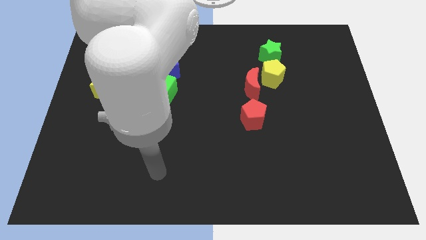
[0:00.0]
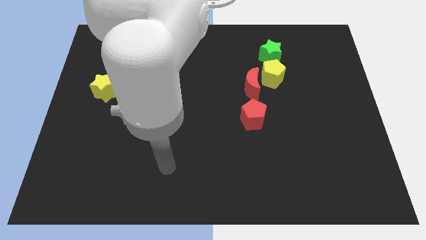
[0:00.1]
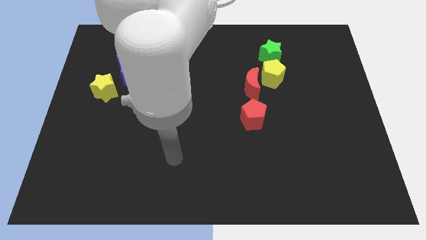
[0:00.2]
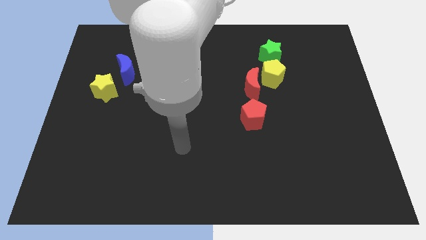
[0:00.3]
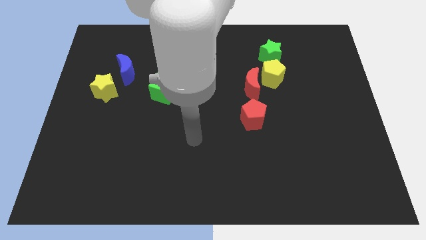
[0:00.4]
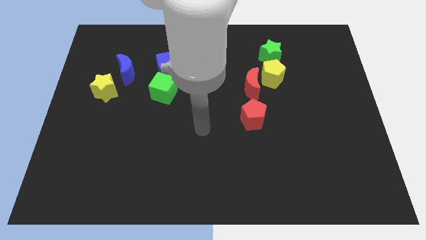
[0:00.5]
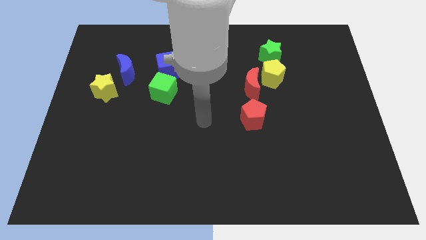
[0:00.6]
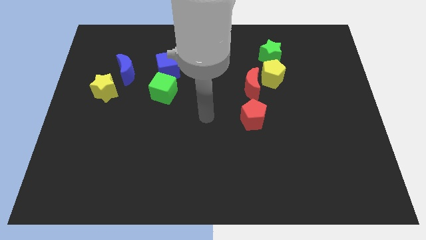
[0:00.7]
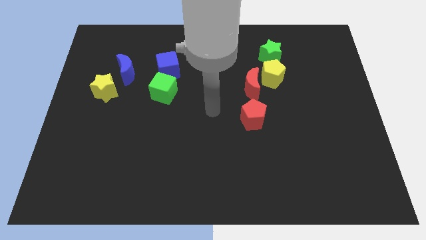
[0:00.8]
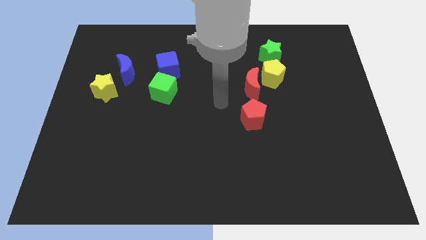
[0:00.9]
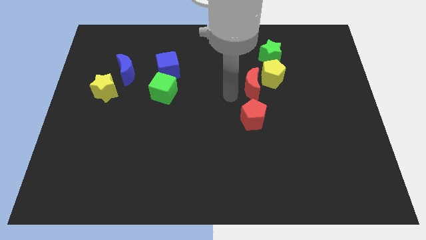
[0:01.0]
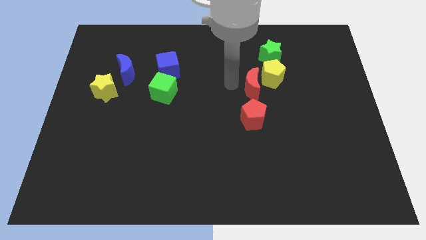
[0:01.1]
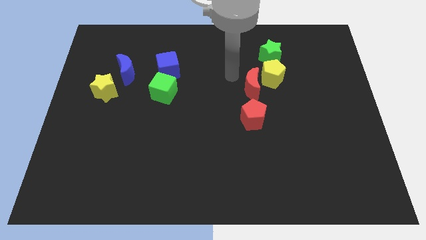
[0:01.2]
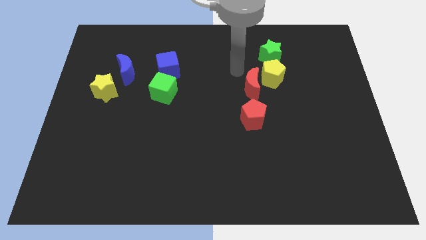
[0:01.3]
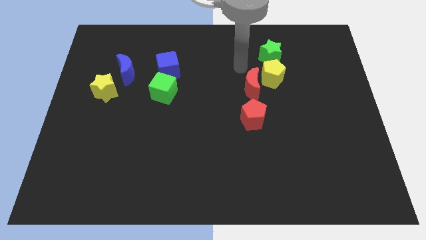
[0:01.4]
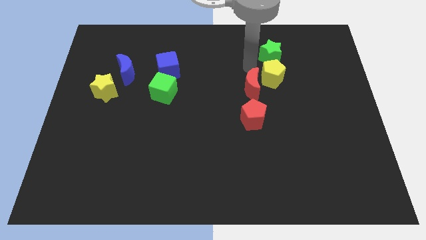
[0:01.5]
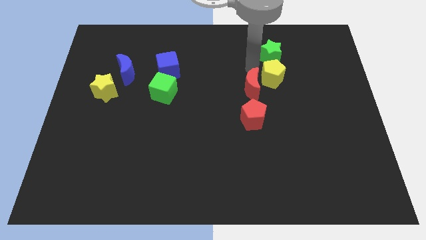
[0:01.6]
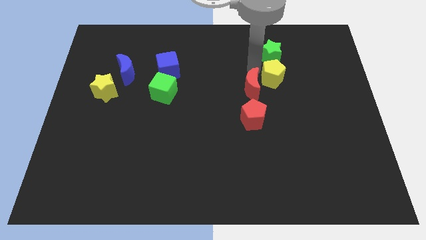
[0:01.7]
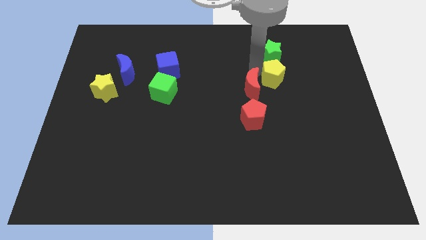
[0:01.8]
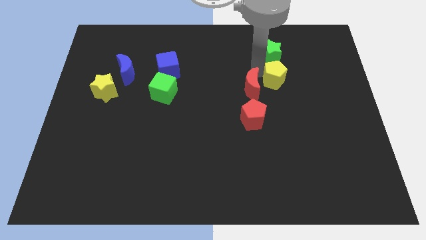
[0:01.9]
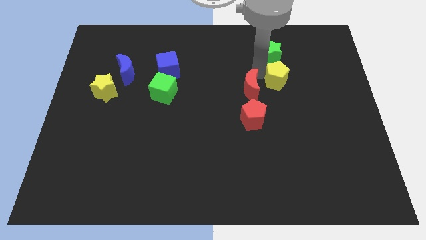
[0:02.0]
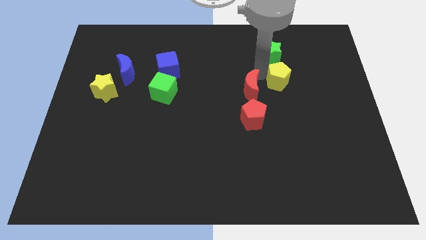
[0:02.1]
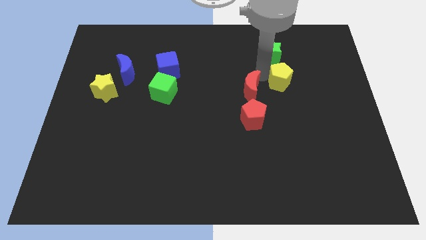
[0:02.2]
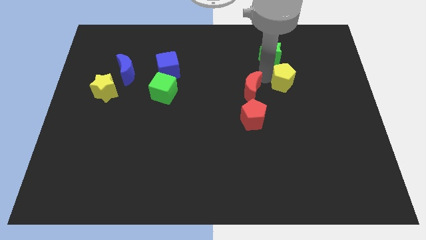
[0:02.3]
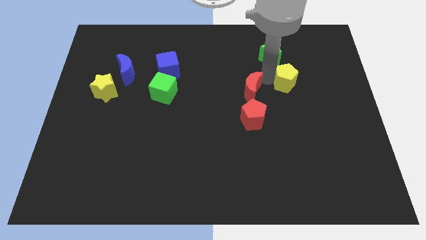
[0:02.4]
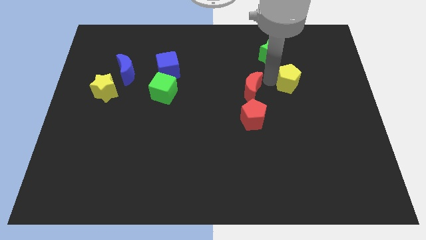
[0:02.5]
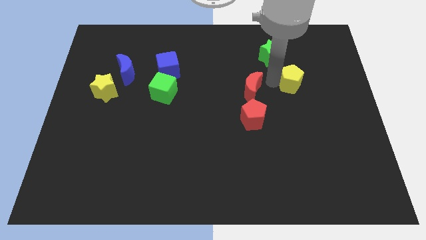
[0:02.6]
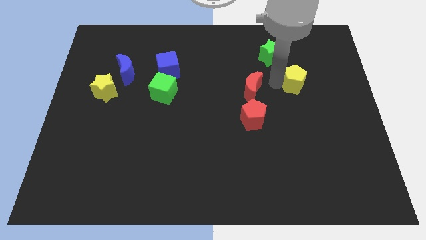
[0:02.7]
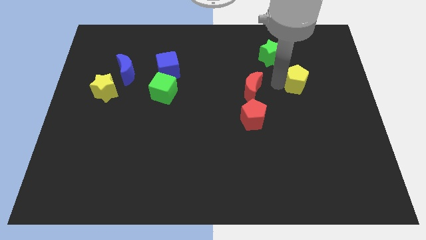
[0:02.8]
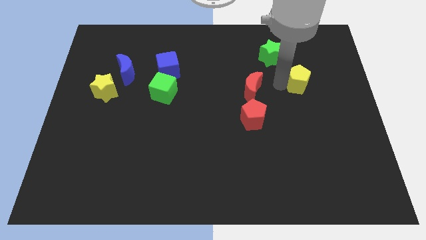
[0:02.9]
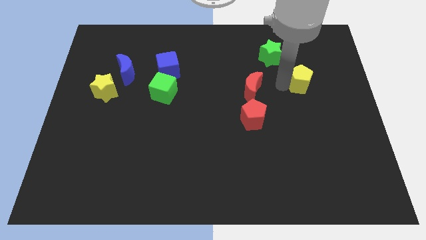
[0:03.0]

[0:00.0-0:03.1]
separate the yellow pentagon from the red moon and green star

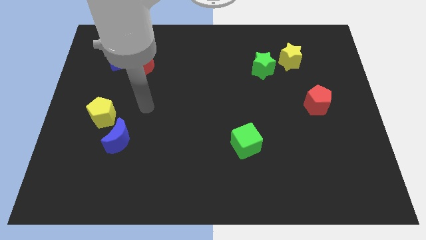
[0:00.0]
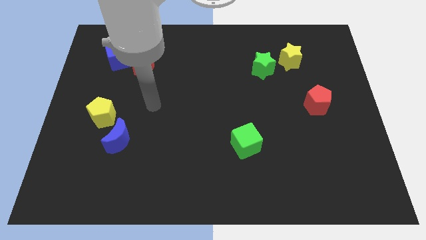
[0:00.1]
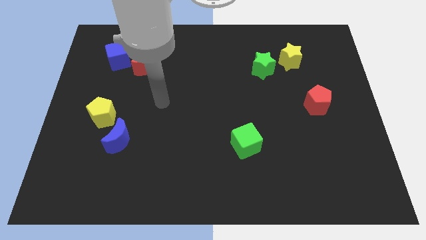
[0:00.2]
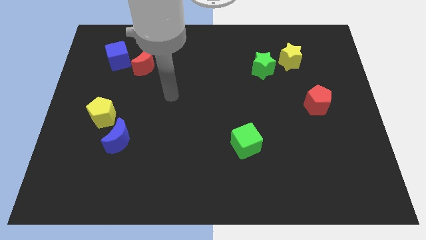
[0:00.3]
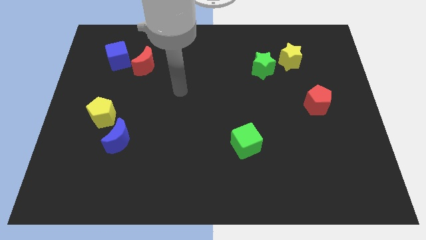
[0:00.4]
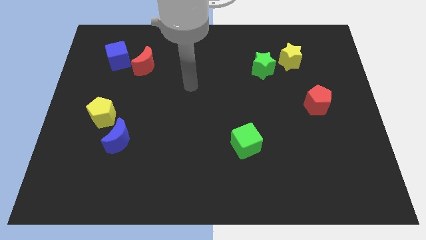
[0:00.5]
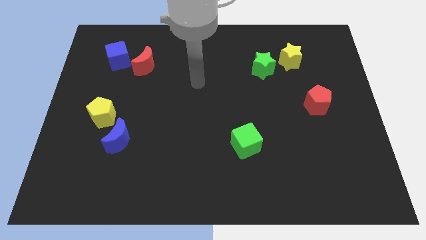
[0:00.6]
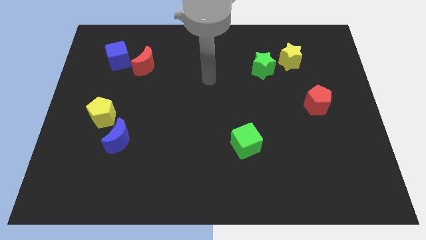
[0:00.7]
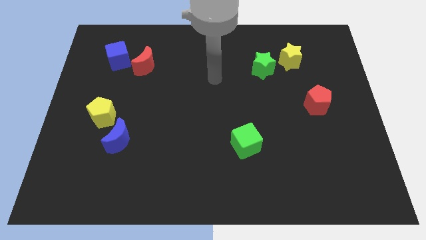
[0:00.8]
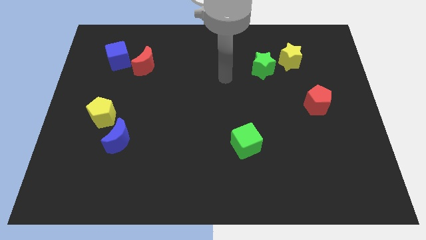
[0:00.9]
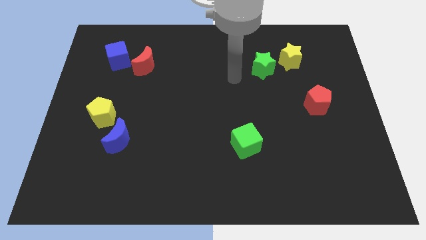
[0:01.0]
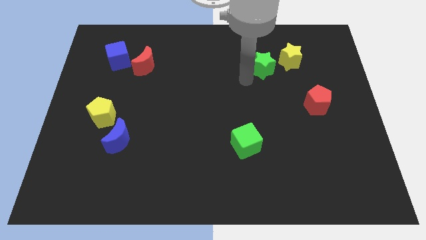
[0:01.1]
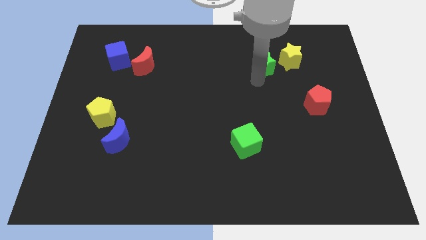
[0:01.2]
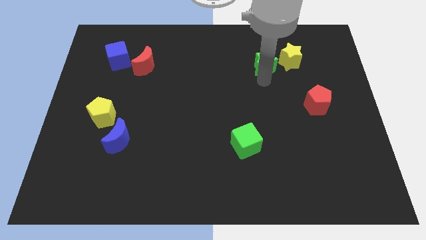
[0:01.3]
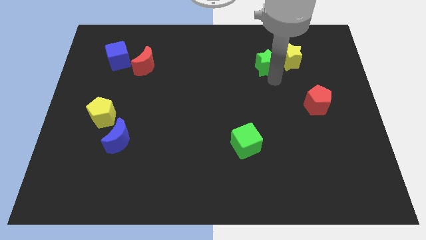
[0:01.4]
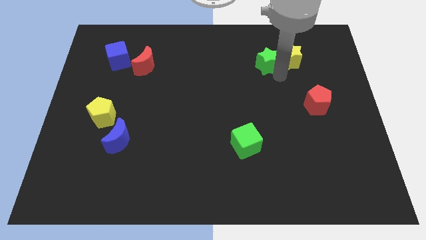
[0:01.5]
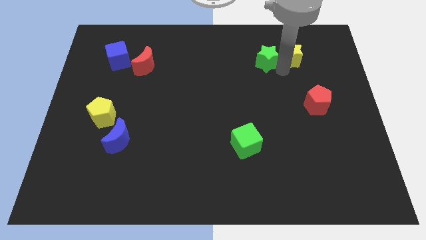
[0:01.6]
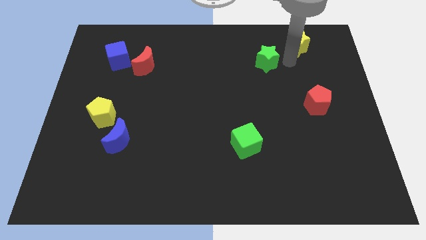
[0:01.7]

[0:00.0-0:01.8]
pull the green star apart from the yellow star

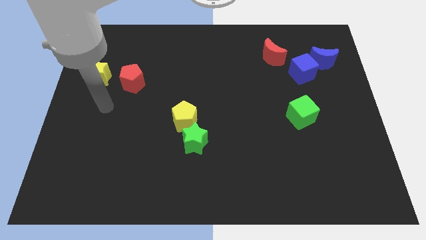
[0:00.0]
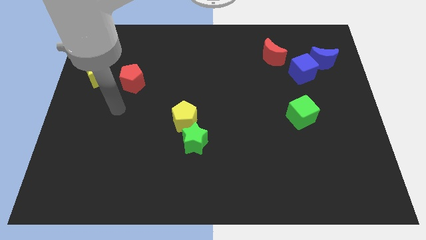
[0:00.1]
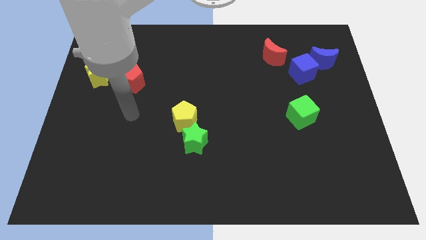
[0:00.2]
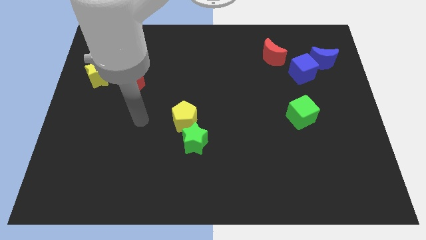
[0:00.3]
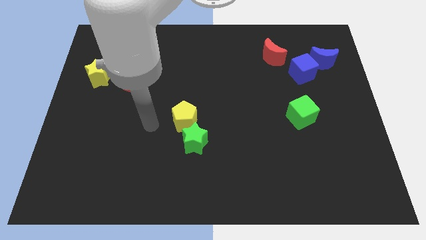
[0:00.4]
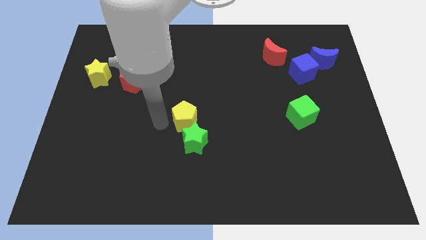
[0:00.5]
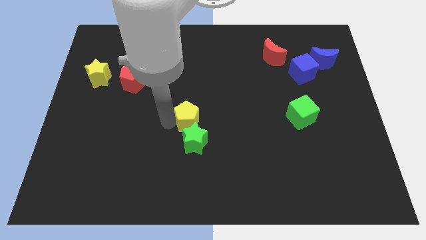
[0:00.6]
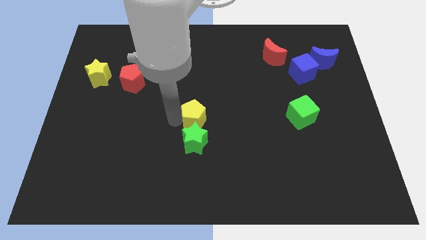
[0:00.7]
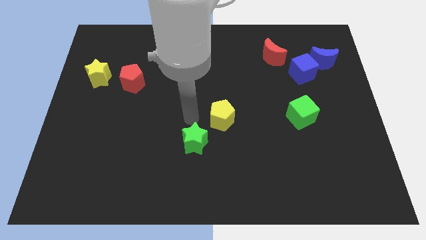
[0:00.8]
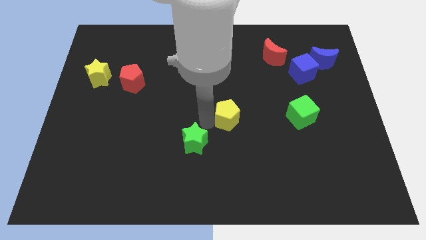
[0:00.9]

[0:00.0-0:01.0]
separate the green star from the yellow pentagon

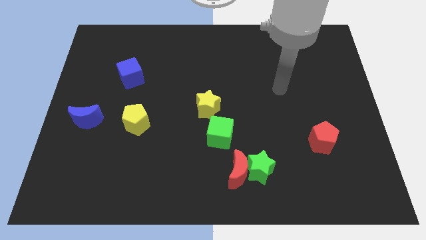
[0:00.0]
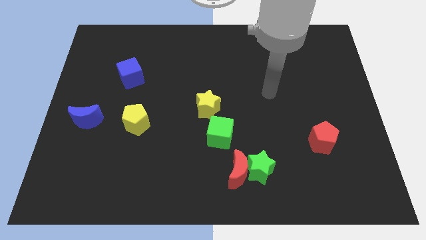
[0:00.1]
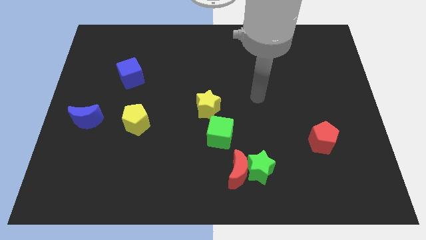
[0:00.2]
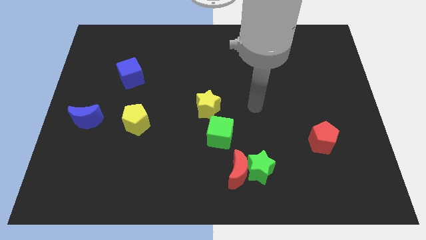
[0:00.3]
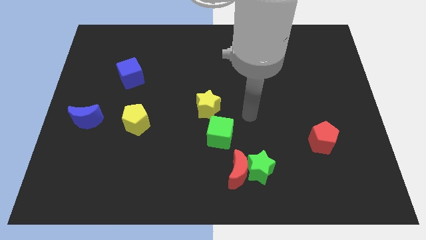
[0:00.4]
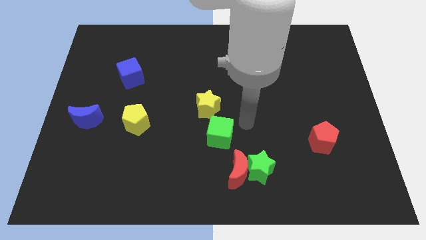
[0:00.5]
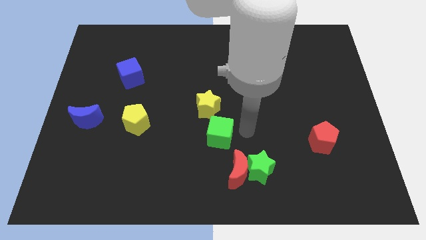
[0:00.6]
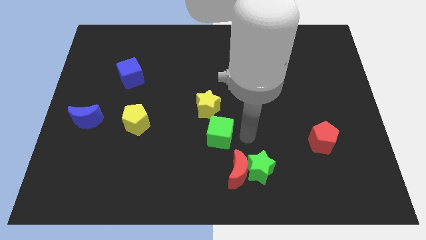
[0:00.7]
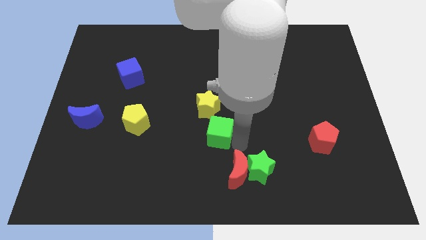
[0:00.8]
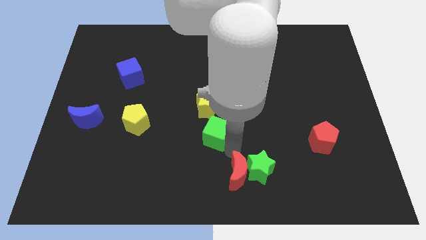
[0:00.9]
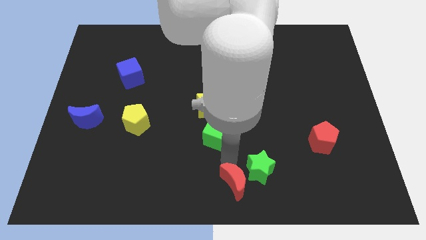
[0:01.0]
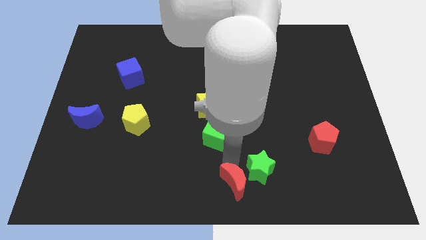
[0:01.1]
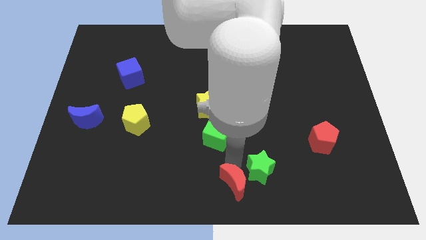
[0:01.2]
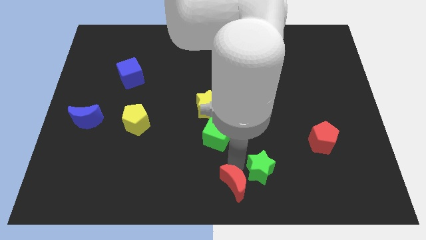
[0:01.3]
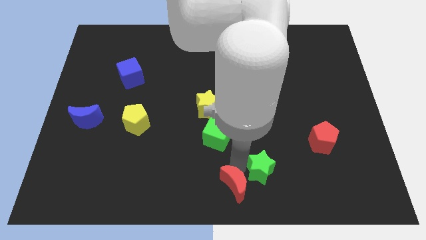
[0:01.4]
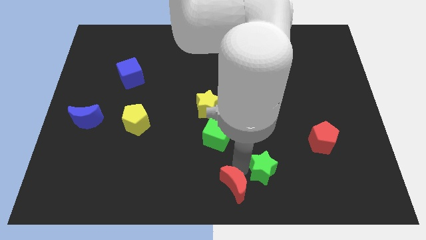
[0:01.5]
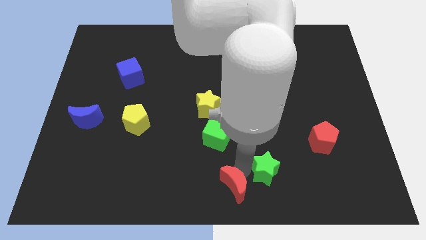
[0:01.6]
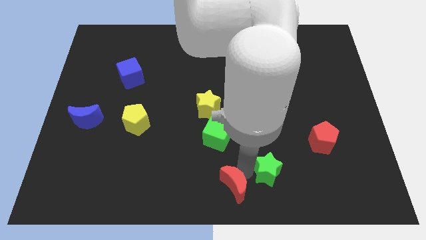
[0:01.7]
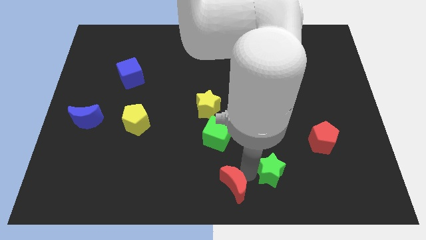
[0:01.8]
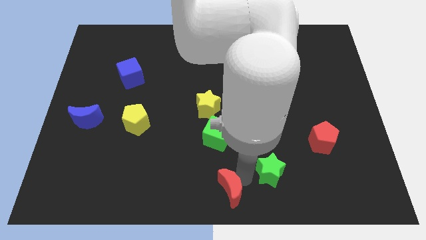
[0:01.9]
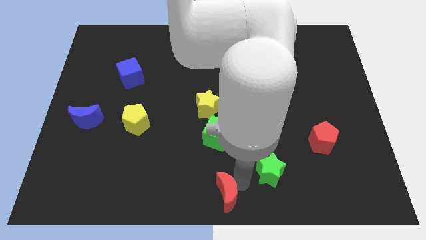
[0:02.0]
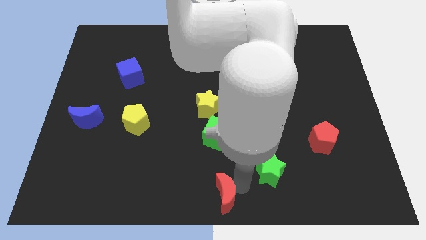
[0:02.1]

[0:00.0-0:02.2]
pull the green star apart from the red moon

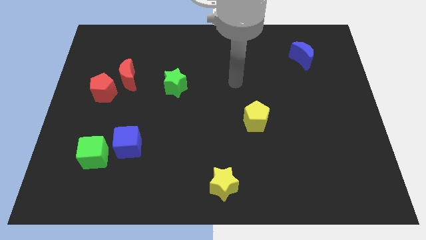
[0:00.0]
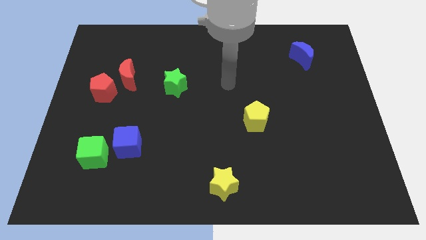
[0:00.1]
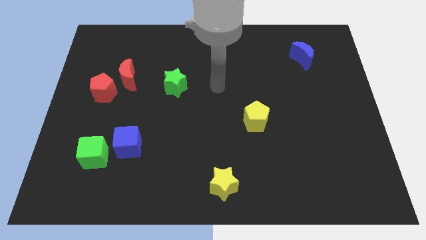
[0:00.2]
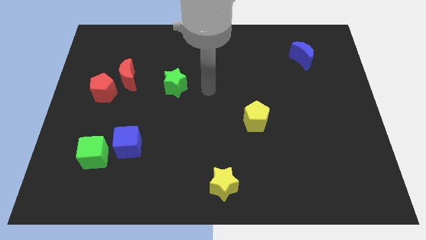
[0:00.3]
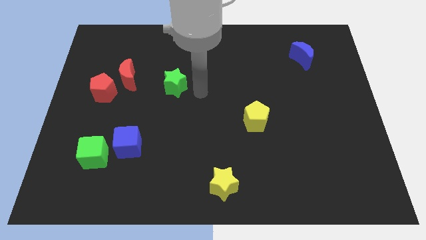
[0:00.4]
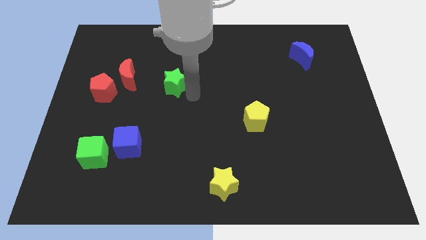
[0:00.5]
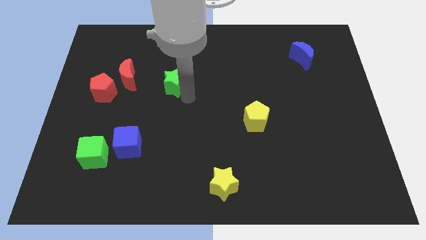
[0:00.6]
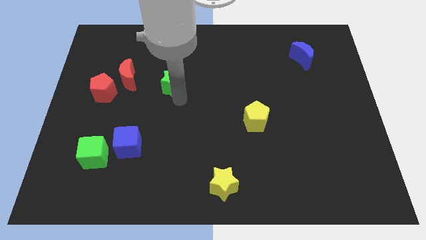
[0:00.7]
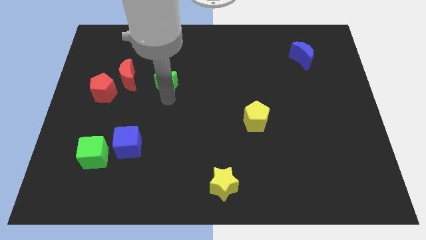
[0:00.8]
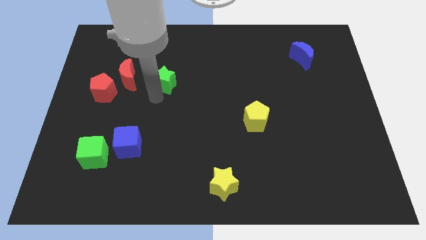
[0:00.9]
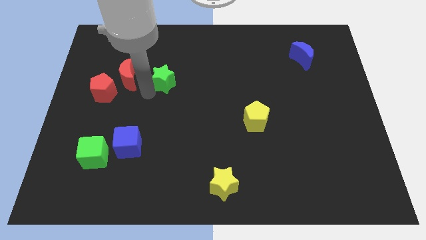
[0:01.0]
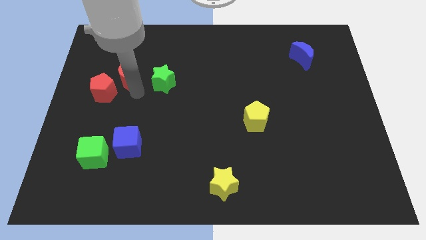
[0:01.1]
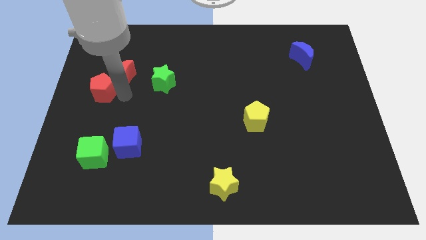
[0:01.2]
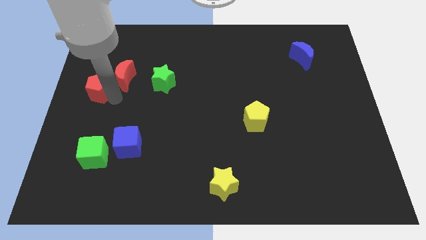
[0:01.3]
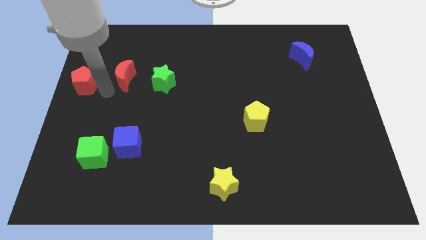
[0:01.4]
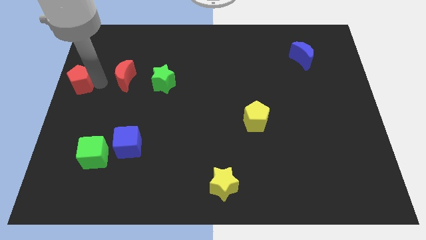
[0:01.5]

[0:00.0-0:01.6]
pull the red moon apart from the red pentagon
